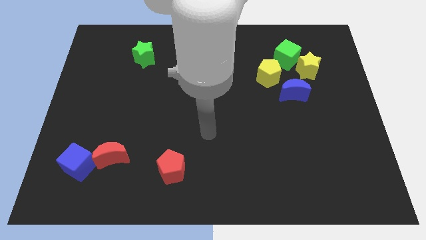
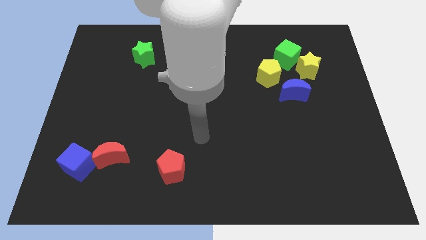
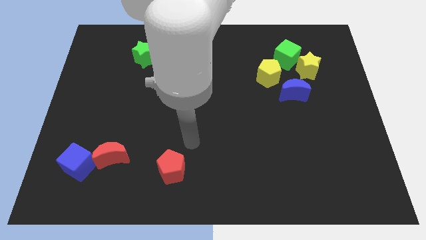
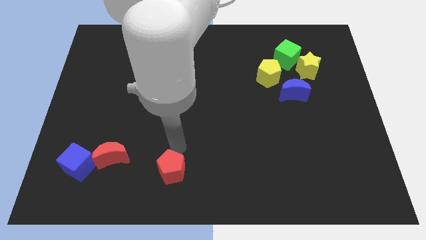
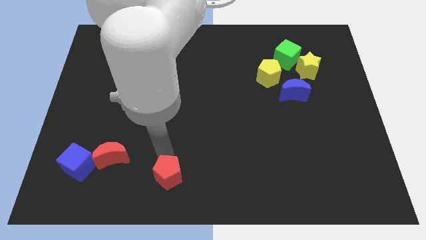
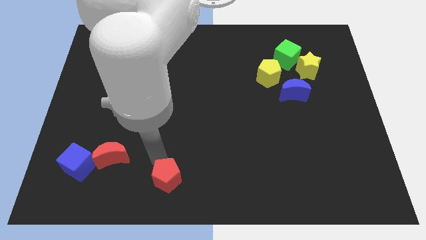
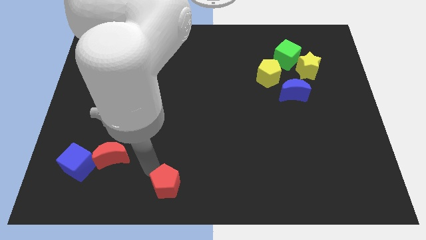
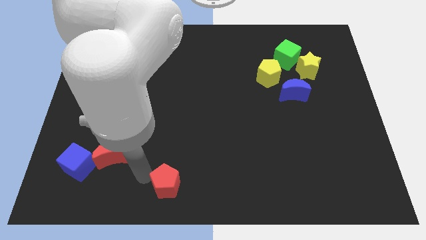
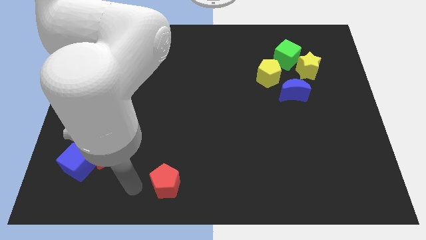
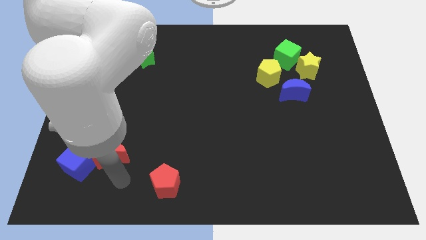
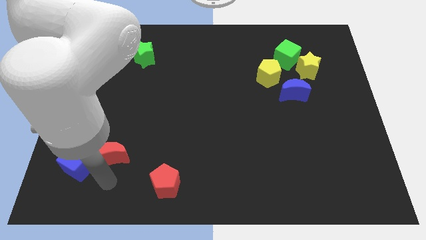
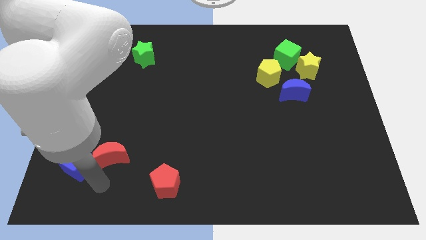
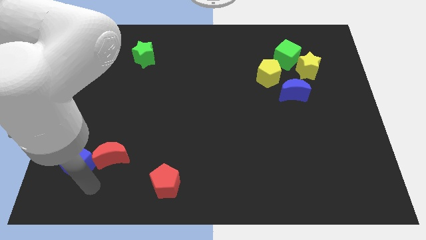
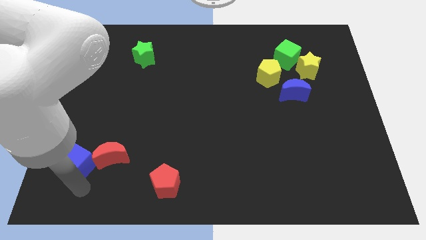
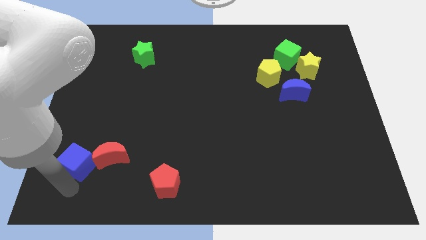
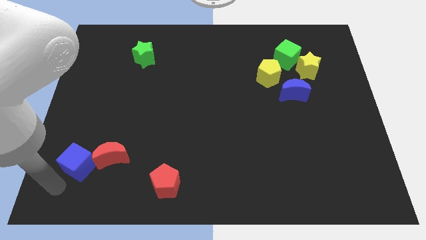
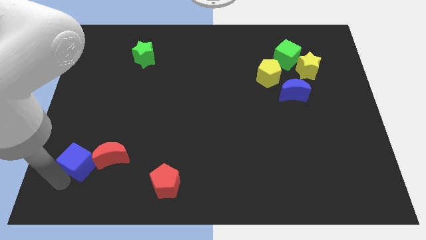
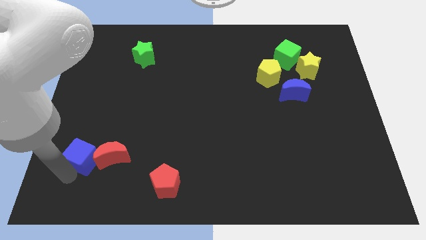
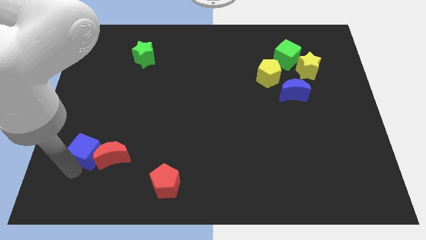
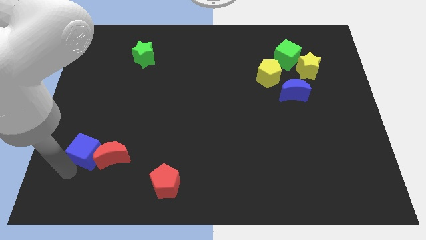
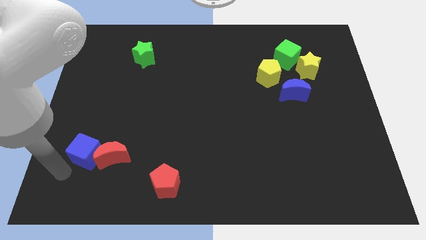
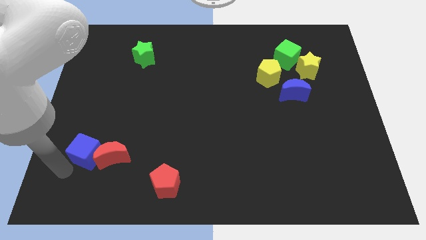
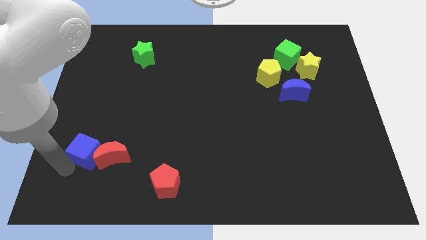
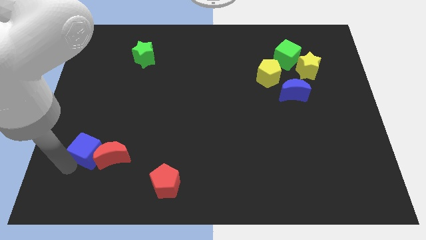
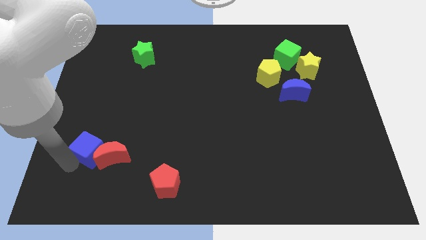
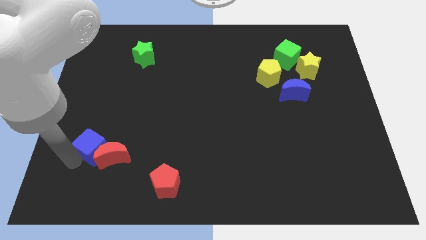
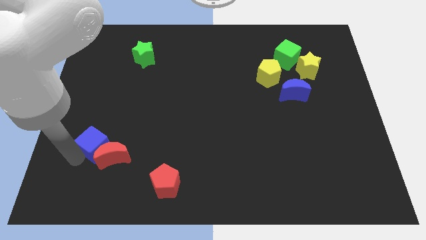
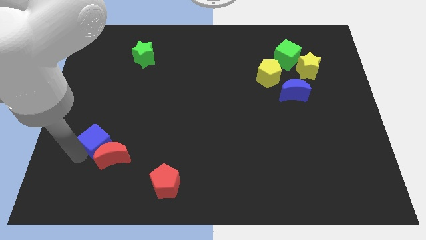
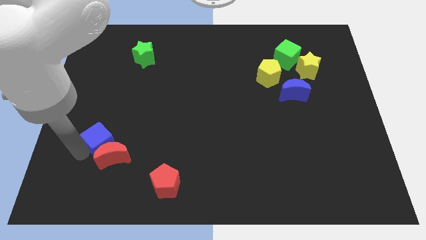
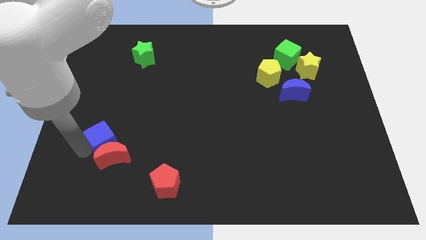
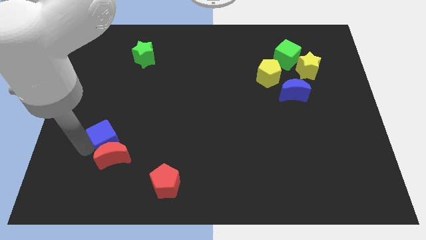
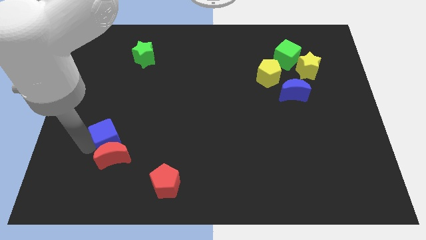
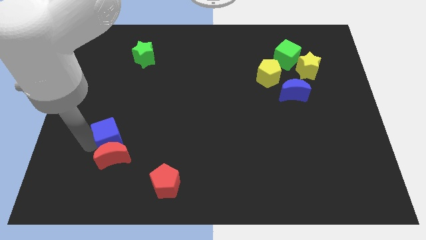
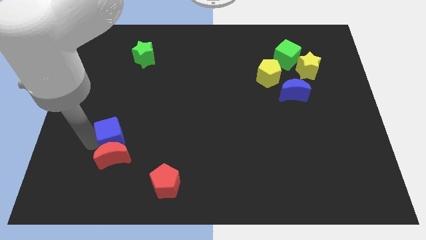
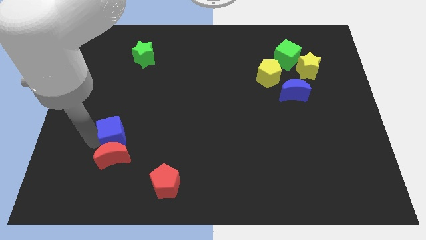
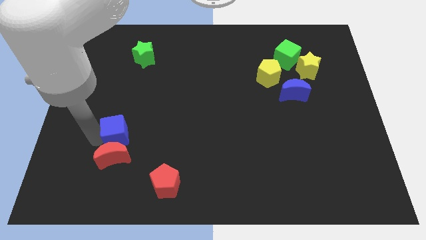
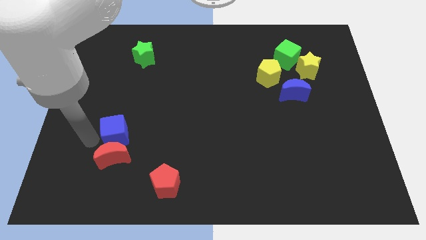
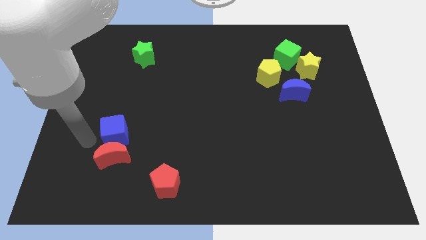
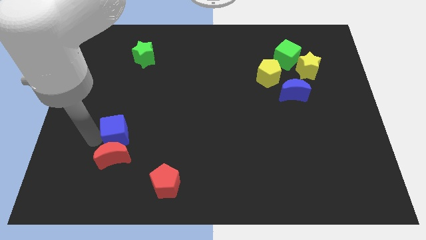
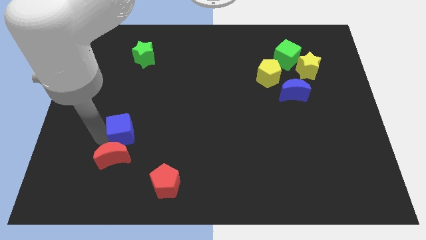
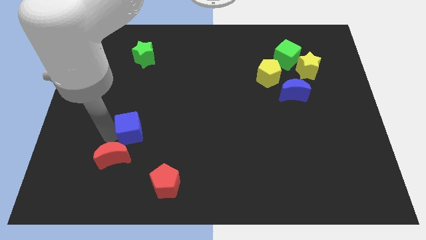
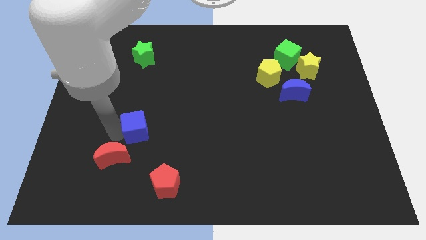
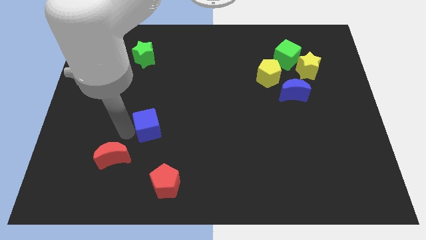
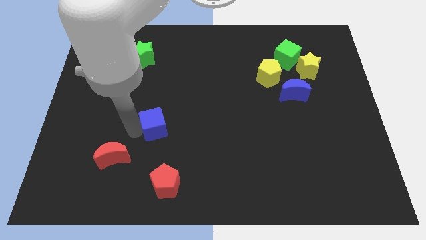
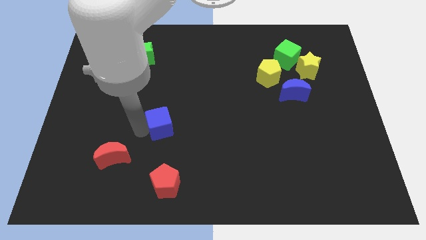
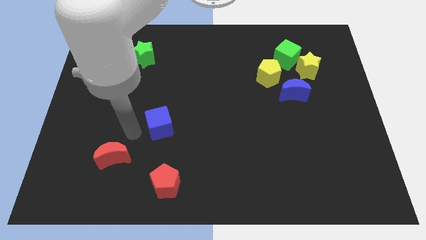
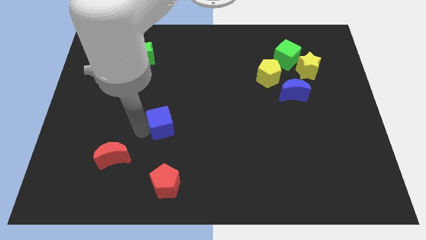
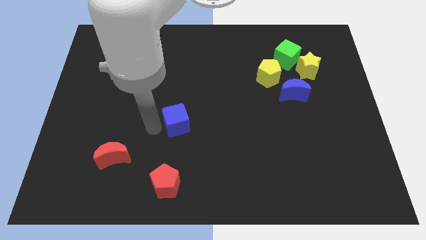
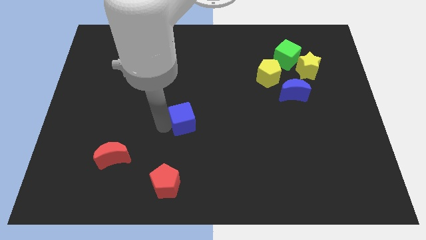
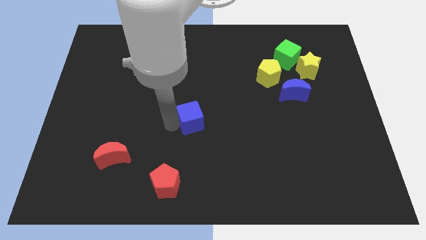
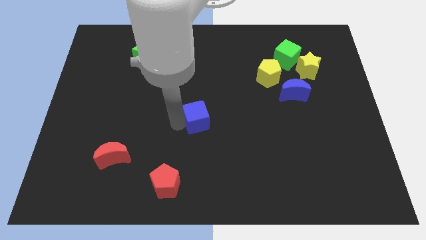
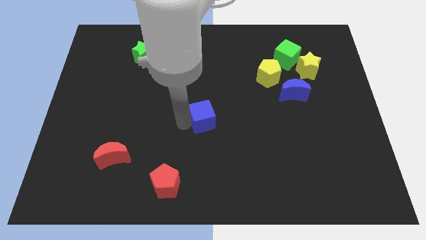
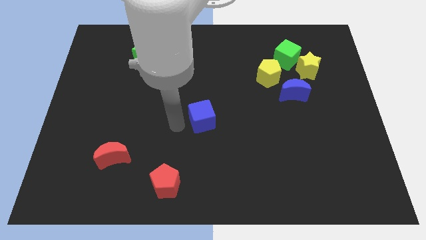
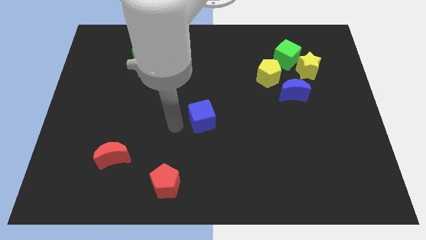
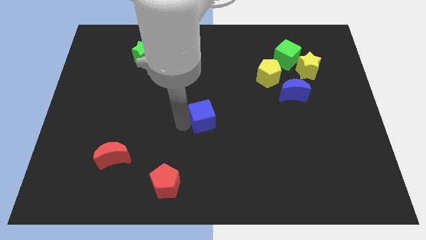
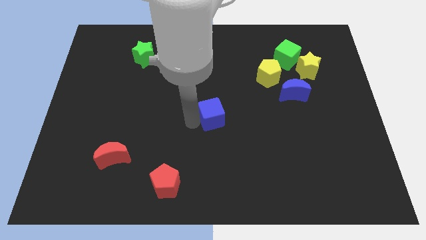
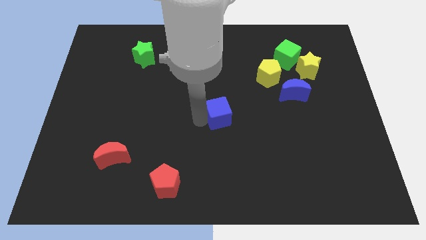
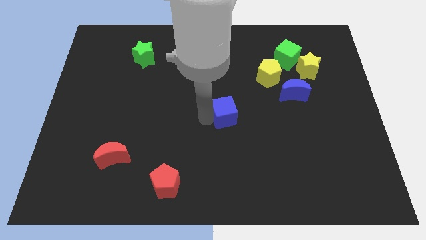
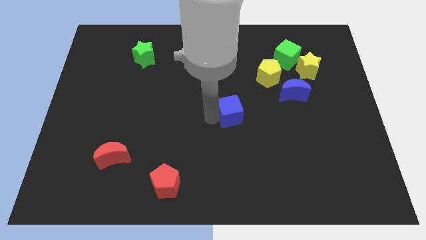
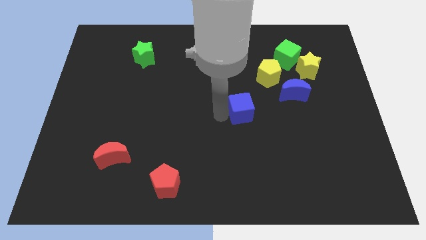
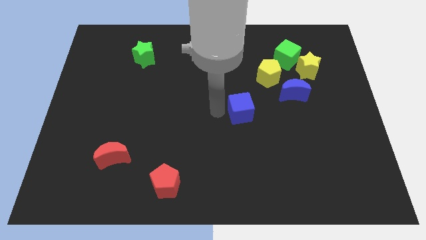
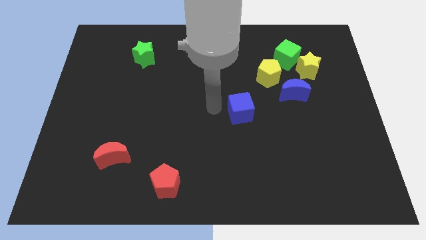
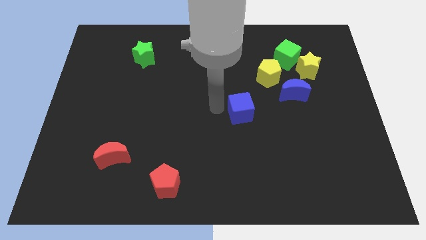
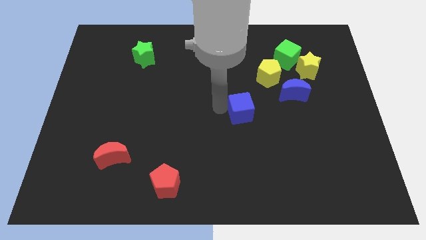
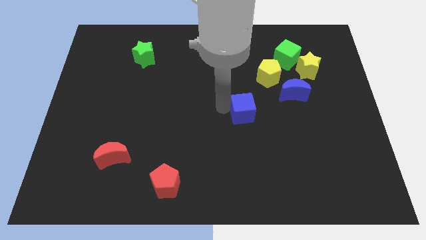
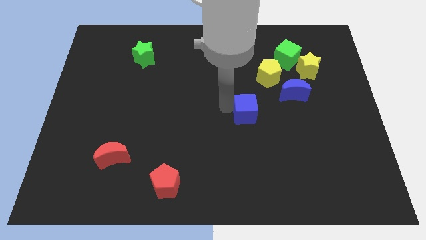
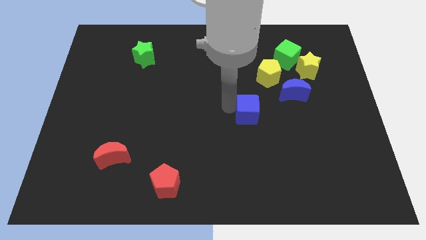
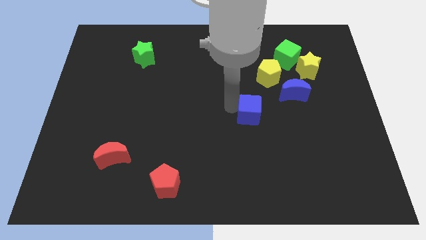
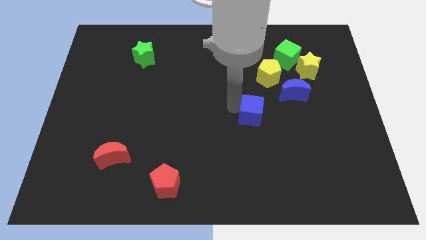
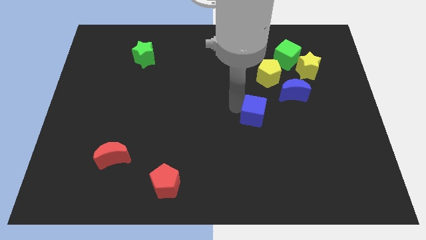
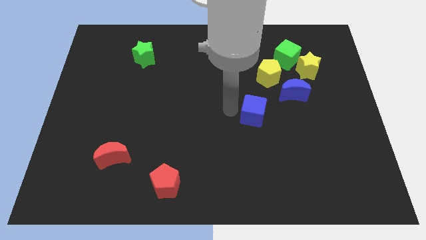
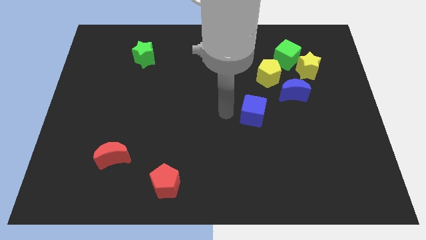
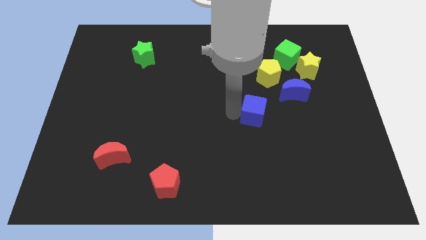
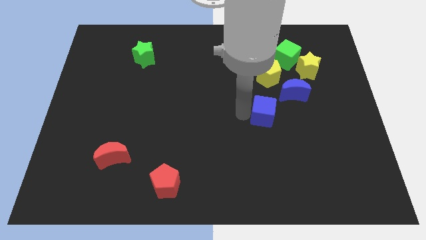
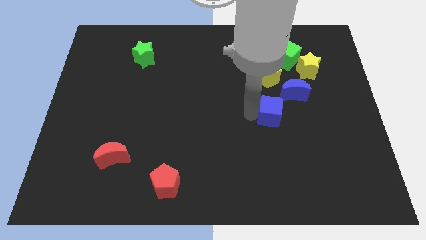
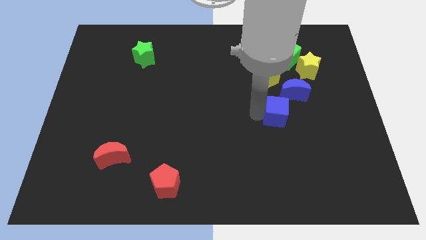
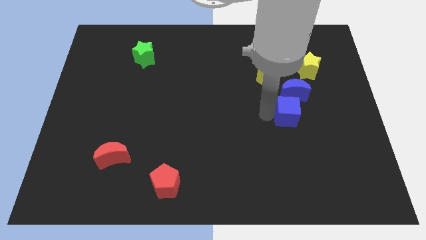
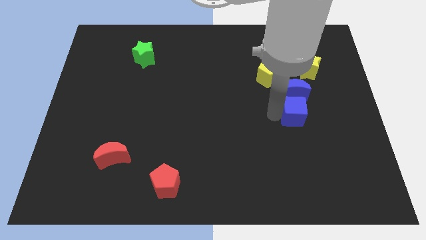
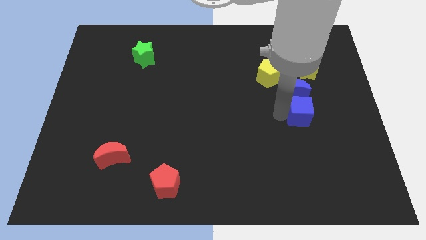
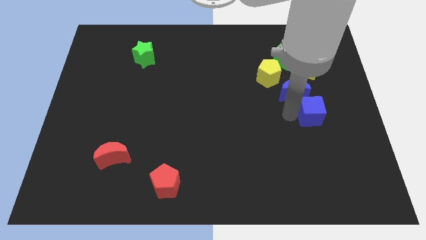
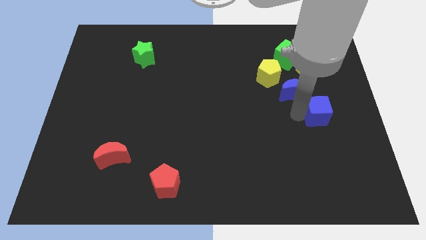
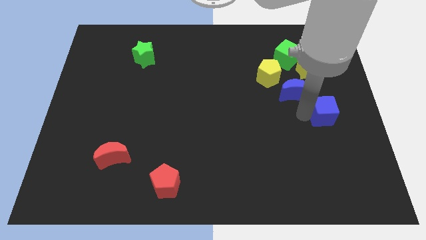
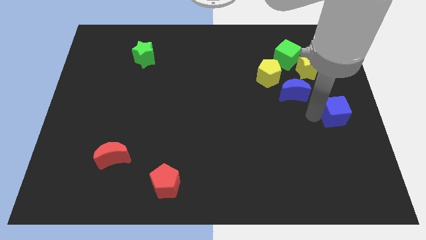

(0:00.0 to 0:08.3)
move the blue cube to the right side
